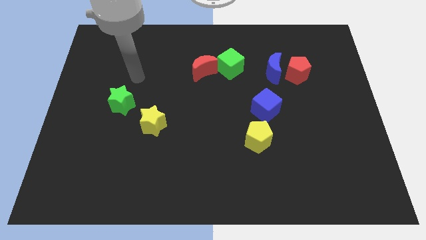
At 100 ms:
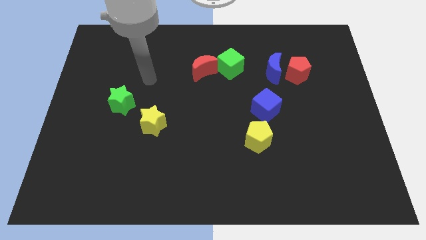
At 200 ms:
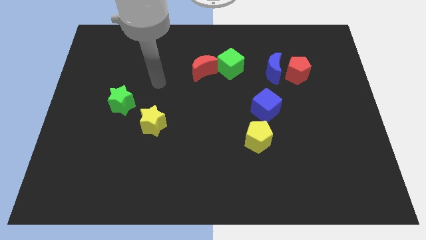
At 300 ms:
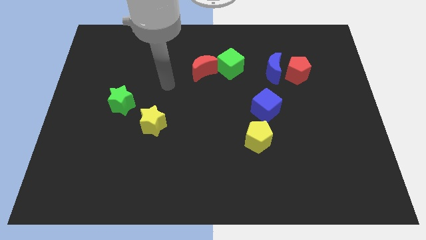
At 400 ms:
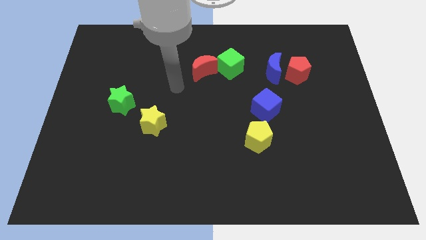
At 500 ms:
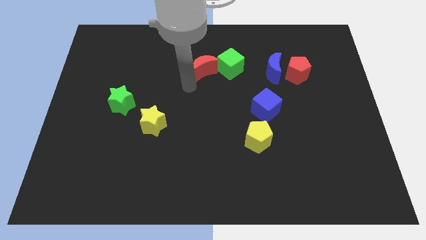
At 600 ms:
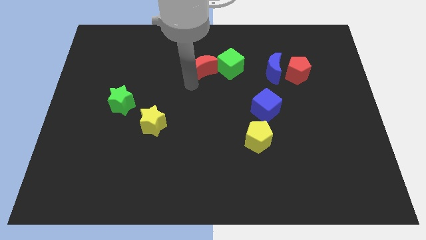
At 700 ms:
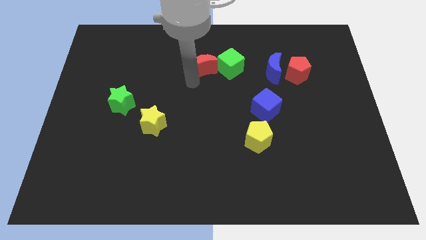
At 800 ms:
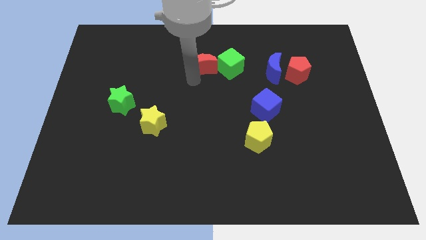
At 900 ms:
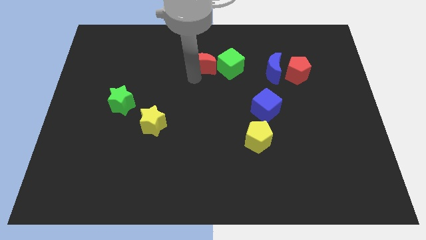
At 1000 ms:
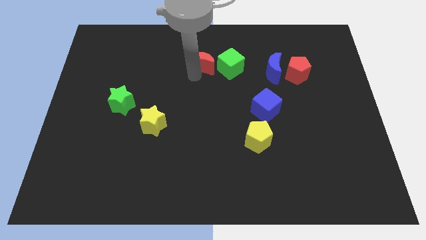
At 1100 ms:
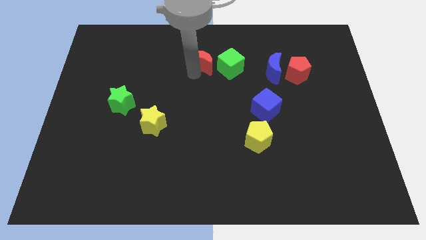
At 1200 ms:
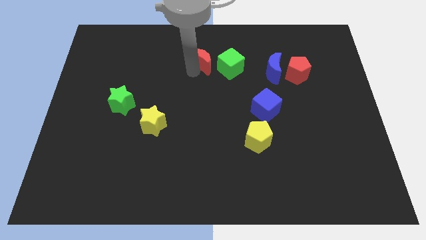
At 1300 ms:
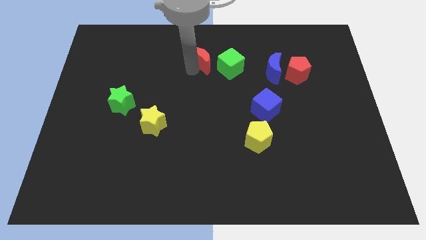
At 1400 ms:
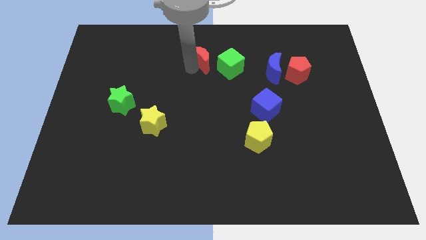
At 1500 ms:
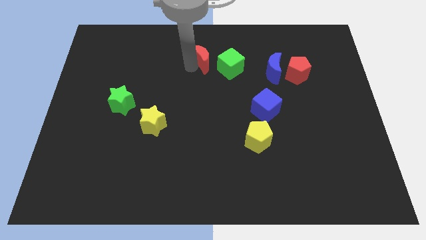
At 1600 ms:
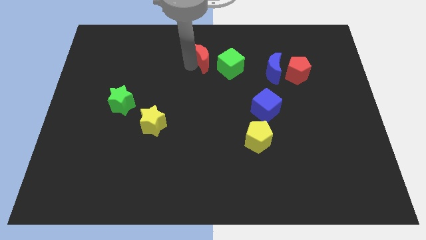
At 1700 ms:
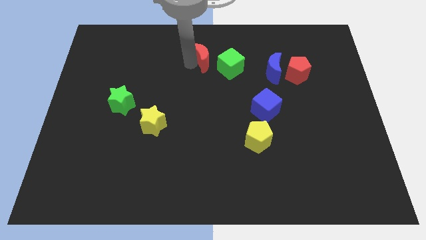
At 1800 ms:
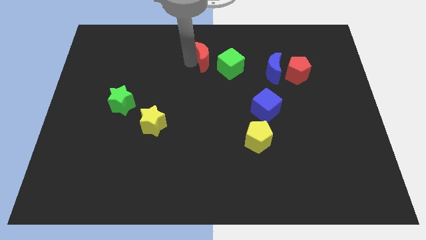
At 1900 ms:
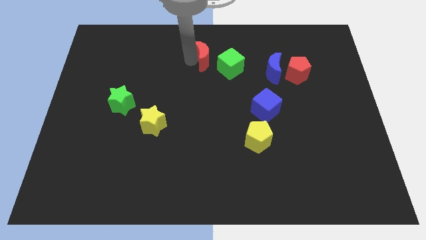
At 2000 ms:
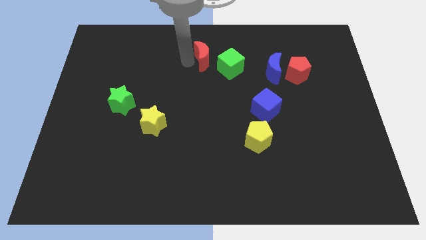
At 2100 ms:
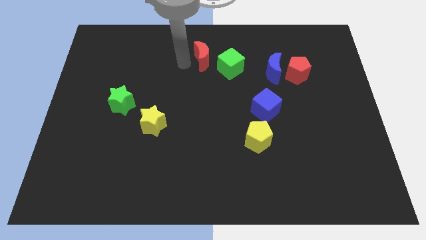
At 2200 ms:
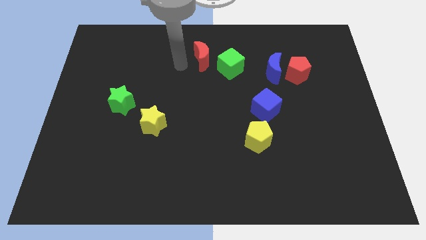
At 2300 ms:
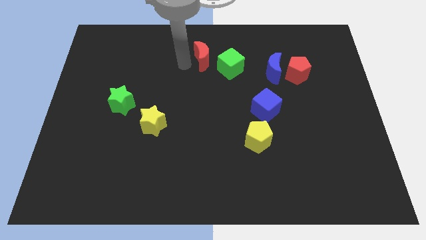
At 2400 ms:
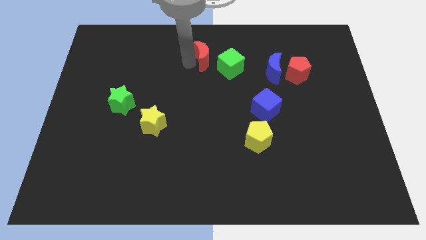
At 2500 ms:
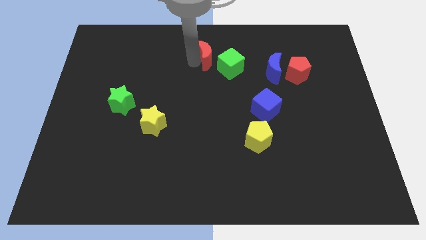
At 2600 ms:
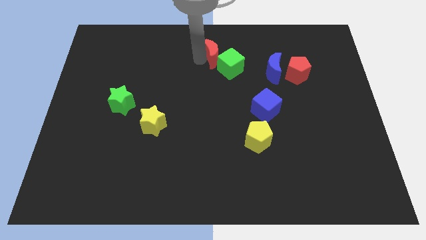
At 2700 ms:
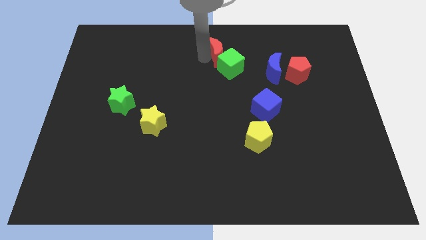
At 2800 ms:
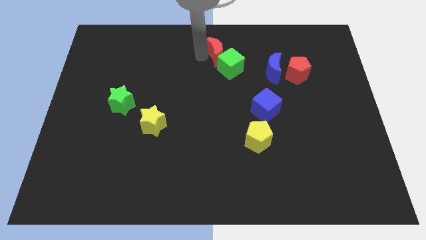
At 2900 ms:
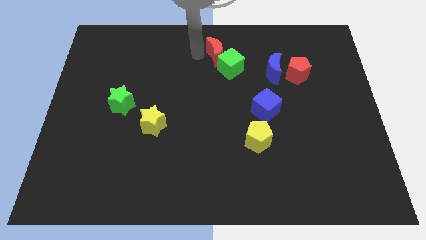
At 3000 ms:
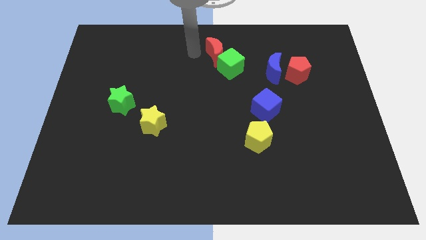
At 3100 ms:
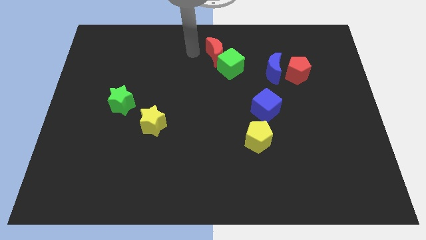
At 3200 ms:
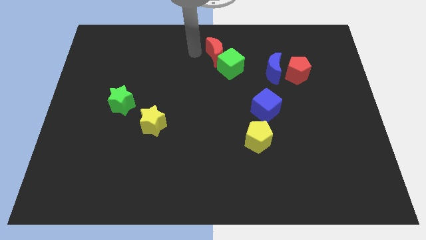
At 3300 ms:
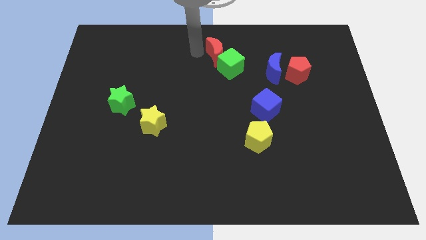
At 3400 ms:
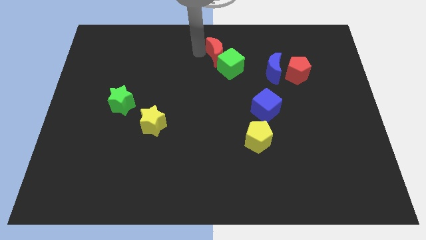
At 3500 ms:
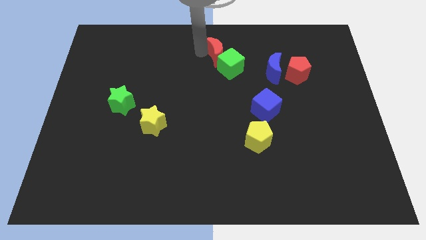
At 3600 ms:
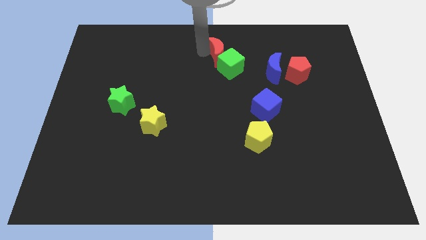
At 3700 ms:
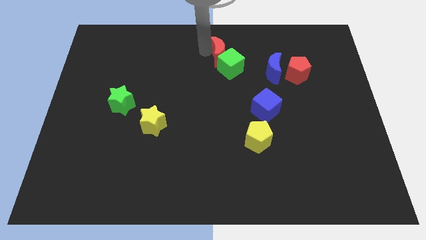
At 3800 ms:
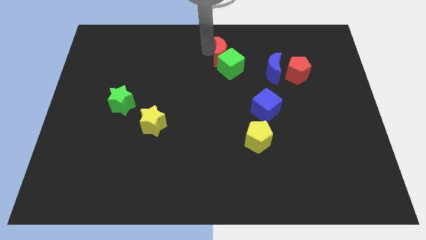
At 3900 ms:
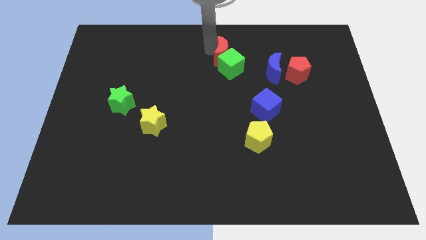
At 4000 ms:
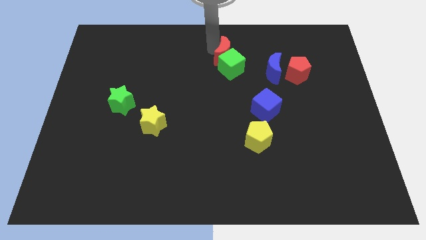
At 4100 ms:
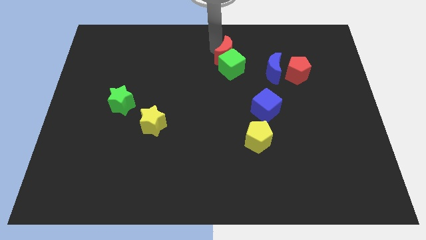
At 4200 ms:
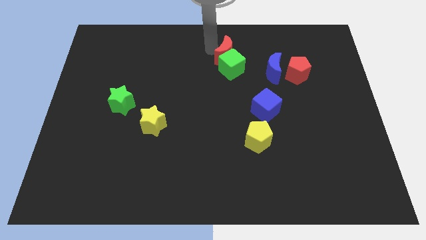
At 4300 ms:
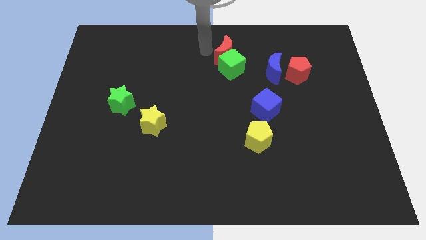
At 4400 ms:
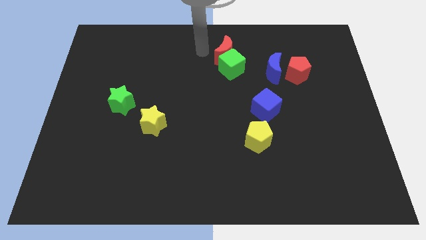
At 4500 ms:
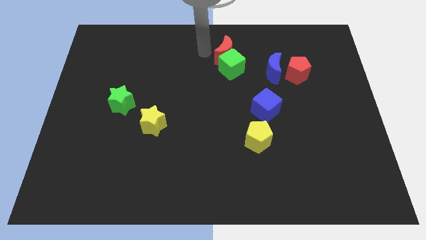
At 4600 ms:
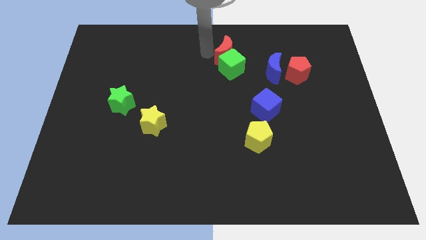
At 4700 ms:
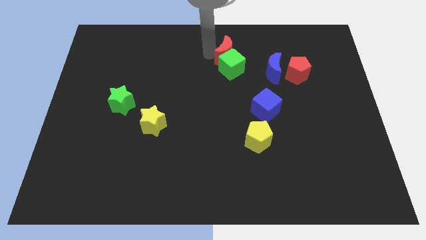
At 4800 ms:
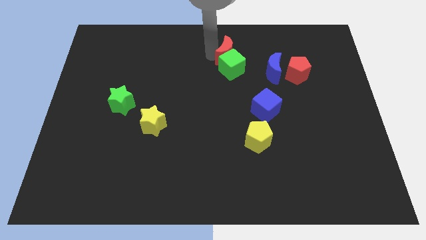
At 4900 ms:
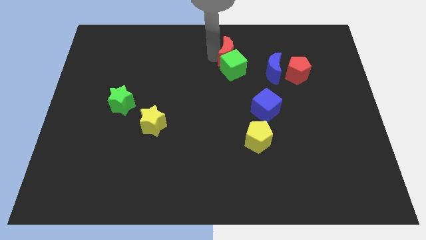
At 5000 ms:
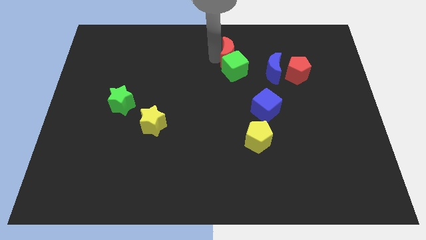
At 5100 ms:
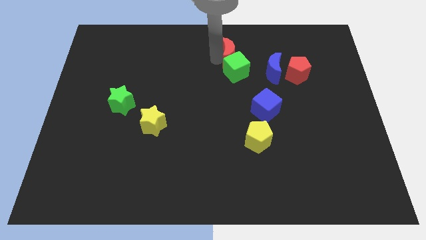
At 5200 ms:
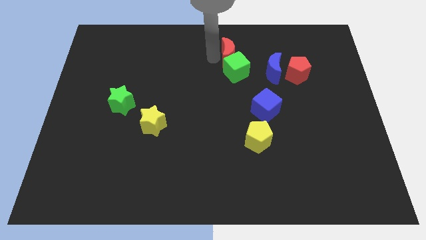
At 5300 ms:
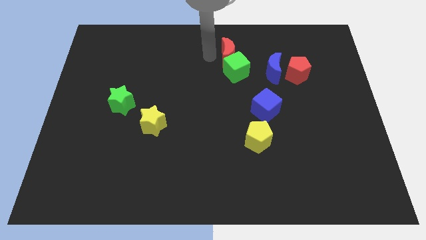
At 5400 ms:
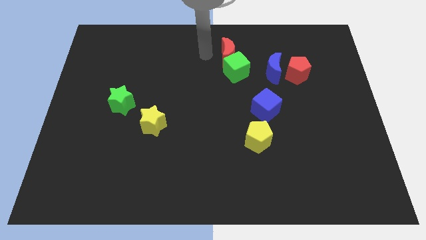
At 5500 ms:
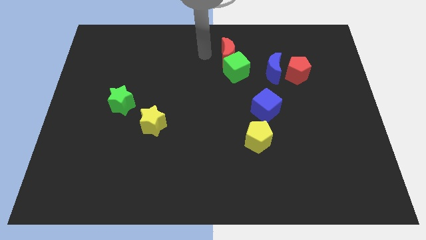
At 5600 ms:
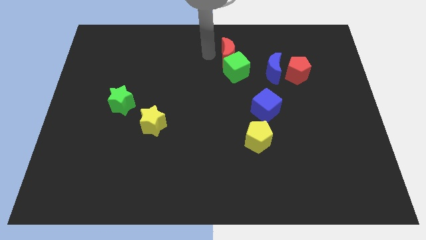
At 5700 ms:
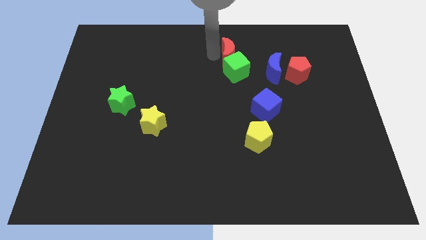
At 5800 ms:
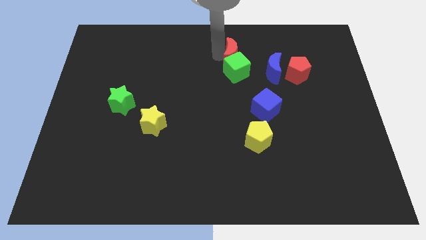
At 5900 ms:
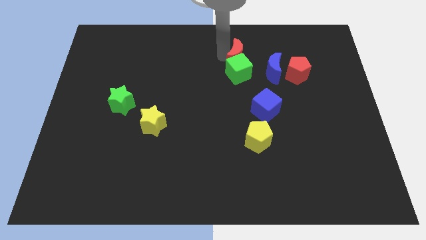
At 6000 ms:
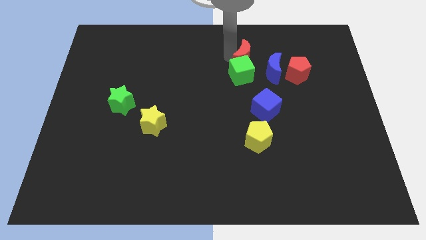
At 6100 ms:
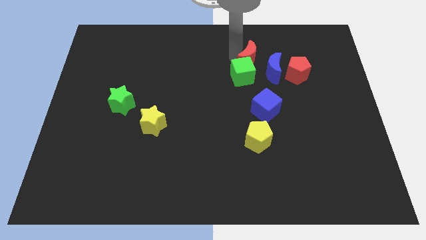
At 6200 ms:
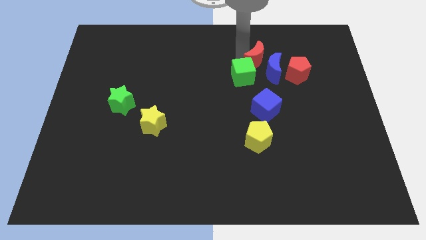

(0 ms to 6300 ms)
move the red moon to the top side of the blue cube

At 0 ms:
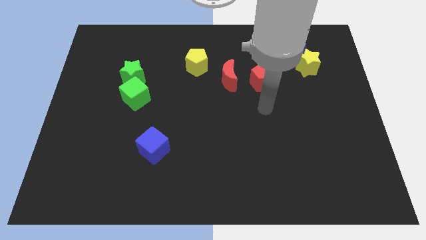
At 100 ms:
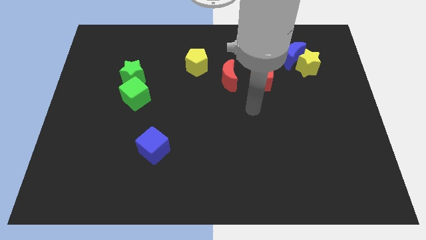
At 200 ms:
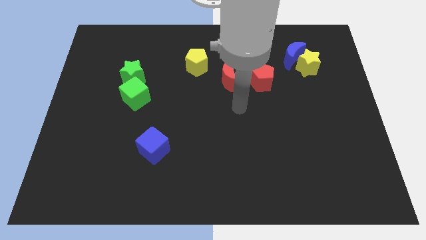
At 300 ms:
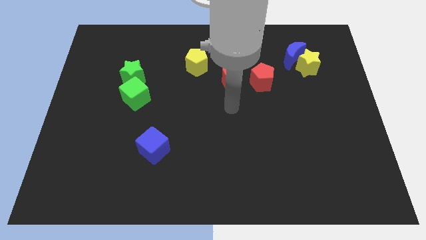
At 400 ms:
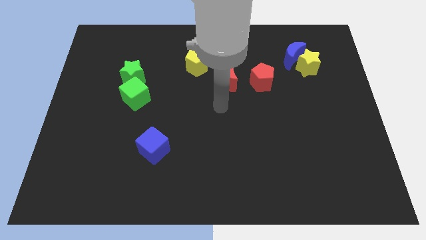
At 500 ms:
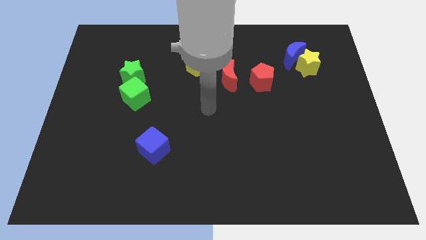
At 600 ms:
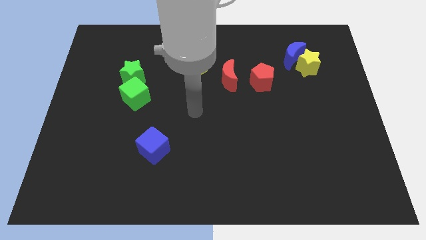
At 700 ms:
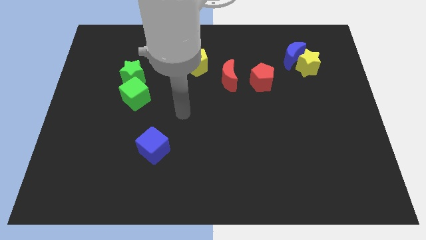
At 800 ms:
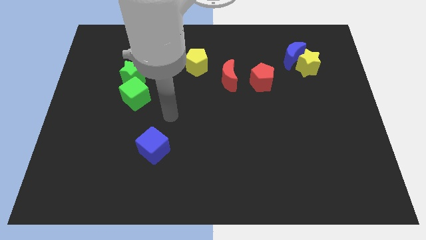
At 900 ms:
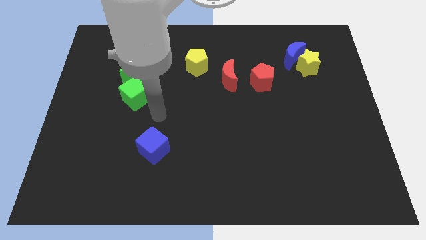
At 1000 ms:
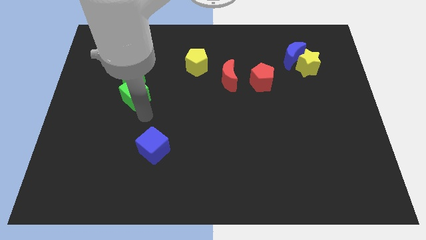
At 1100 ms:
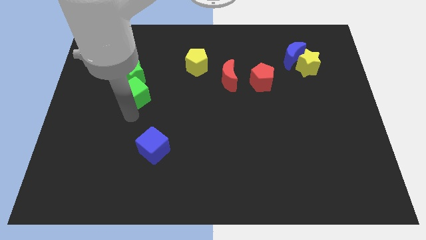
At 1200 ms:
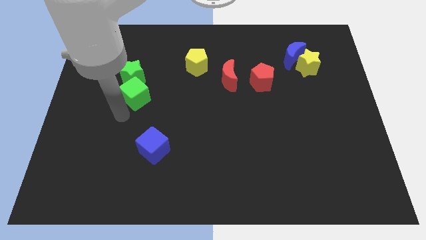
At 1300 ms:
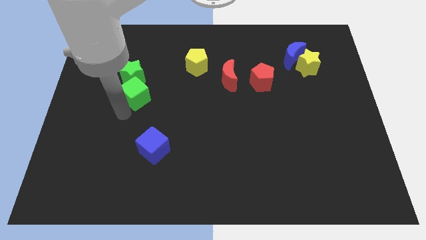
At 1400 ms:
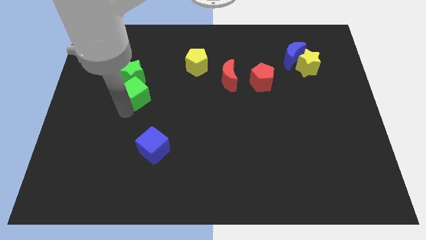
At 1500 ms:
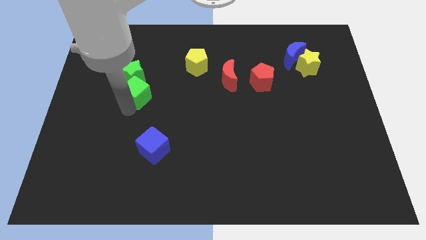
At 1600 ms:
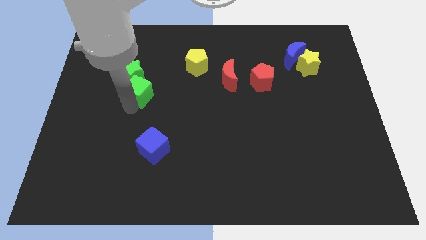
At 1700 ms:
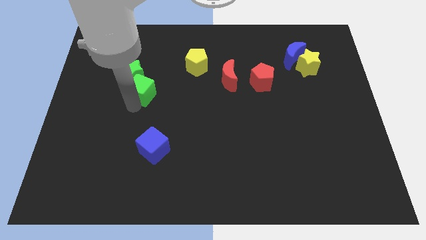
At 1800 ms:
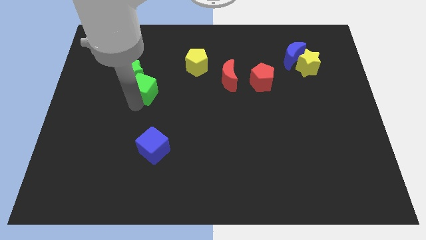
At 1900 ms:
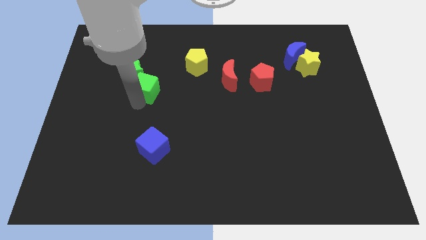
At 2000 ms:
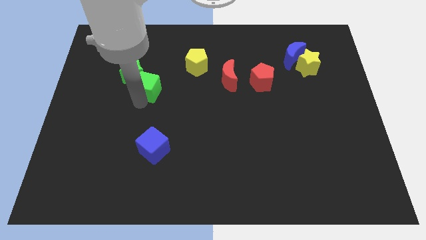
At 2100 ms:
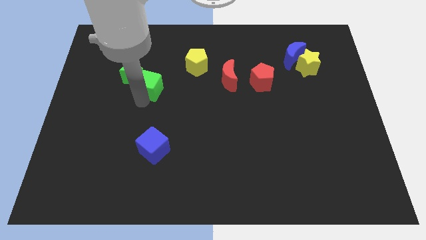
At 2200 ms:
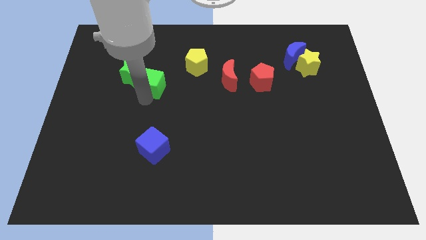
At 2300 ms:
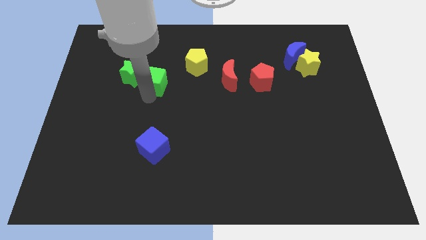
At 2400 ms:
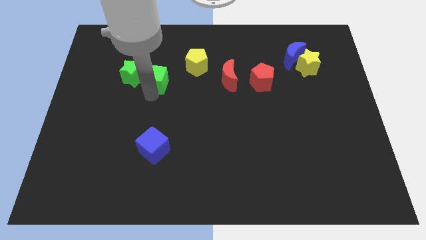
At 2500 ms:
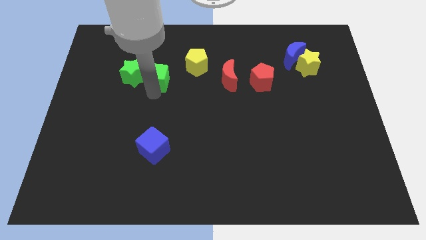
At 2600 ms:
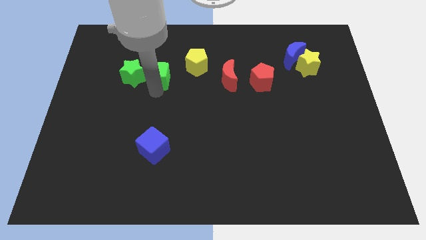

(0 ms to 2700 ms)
move the green cube to the top right side of the green star
